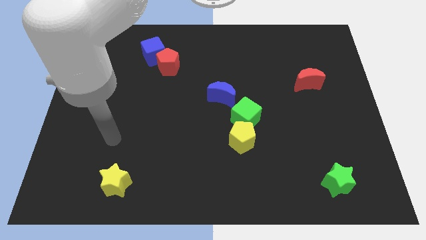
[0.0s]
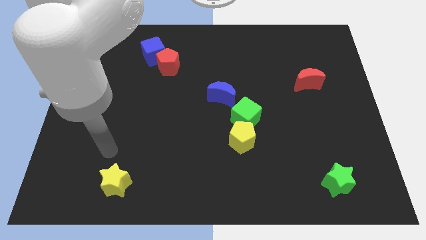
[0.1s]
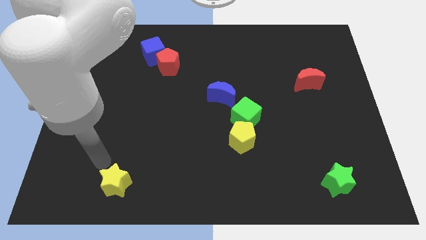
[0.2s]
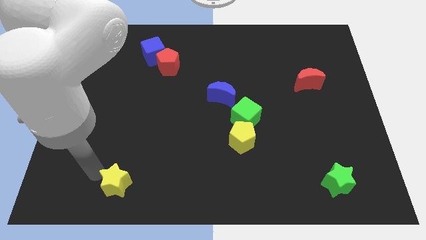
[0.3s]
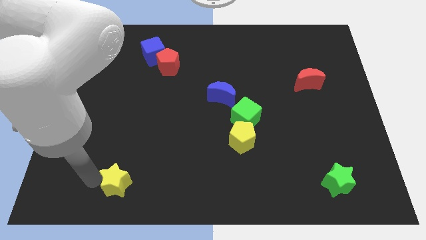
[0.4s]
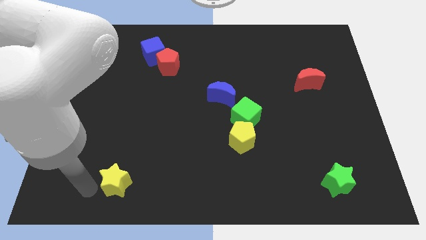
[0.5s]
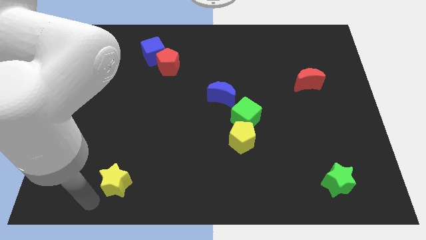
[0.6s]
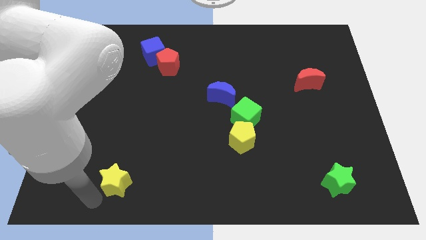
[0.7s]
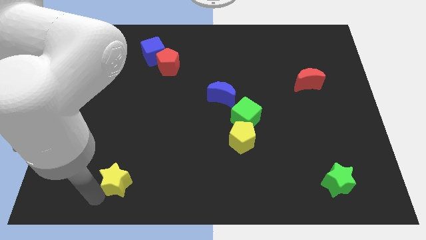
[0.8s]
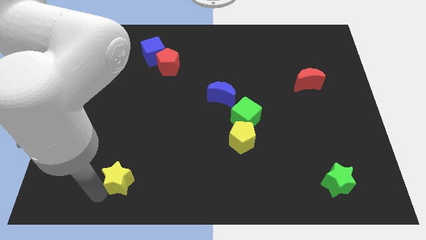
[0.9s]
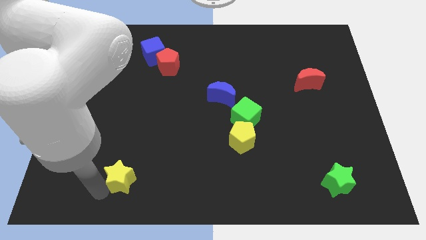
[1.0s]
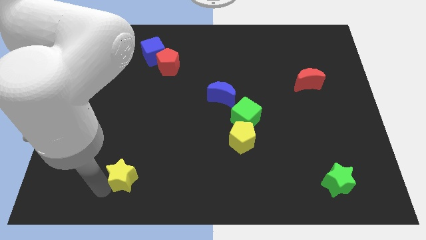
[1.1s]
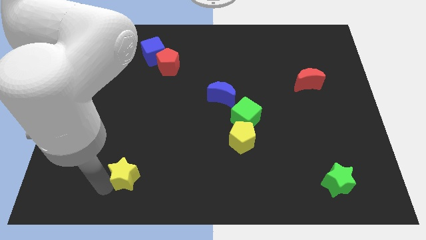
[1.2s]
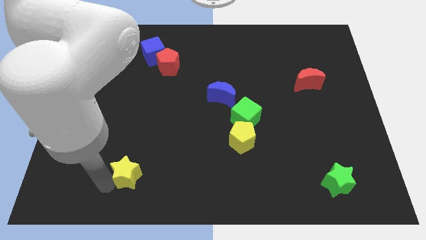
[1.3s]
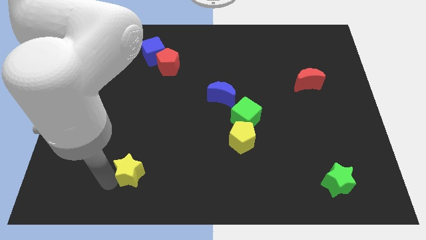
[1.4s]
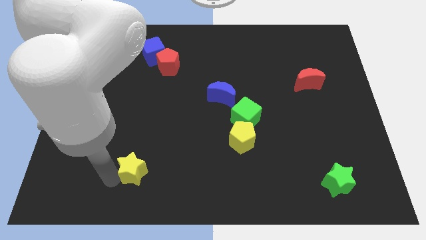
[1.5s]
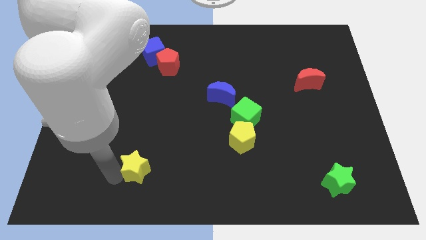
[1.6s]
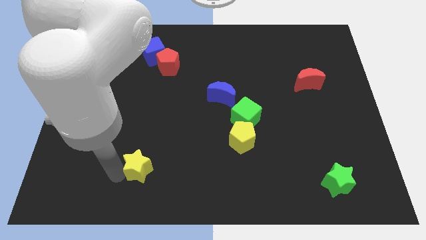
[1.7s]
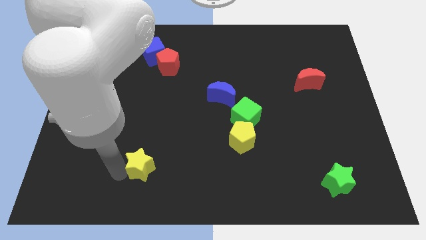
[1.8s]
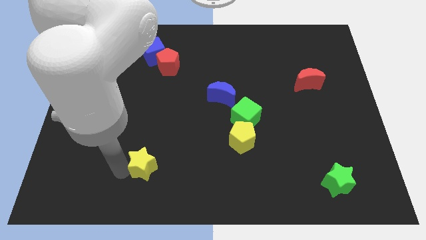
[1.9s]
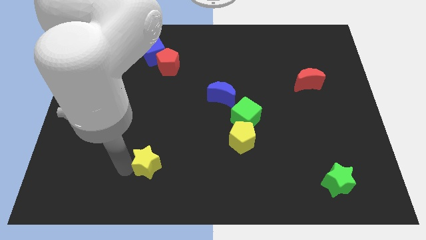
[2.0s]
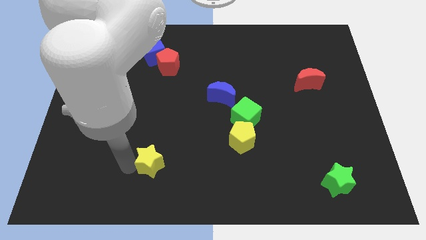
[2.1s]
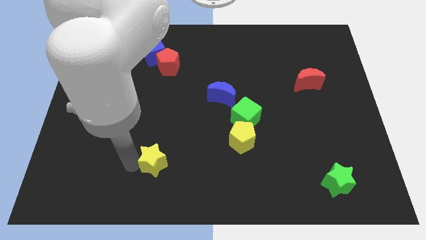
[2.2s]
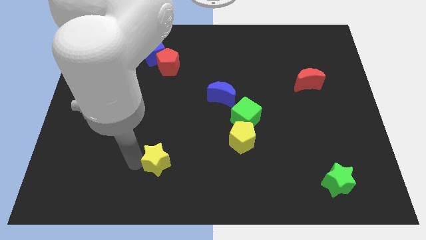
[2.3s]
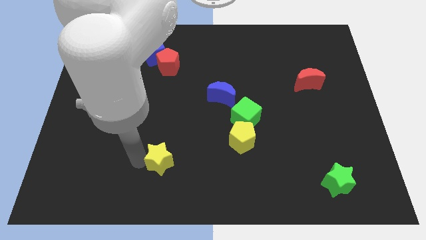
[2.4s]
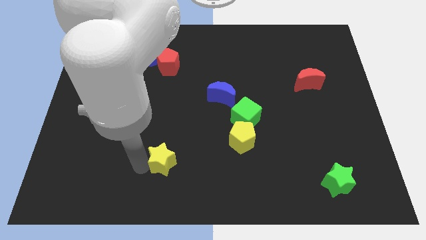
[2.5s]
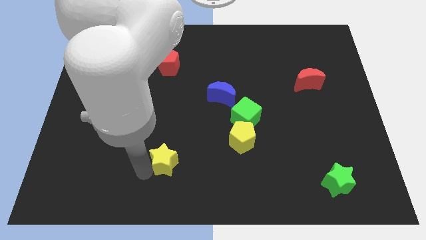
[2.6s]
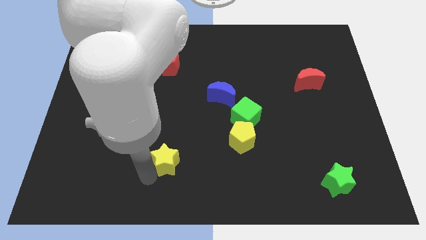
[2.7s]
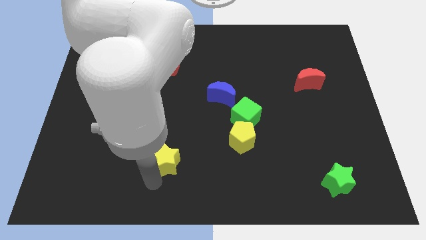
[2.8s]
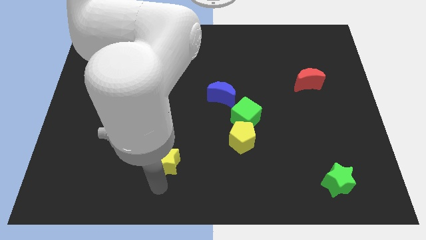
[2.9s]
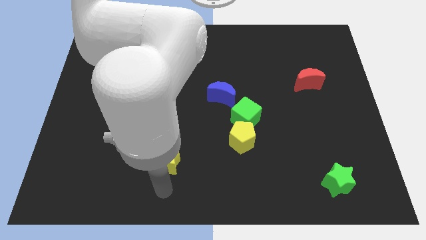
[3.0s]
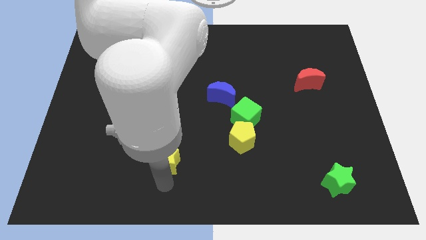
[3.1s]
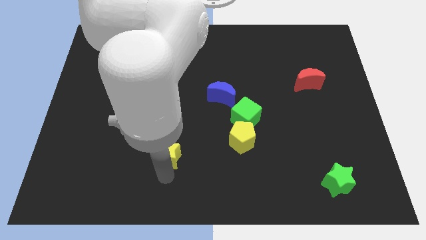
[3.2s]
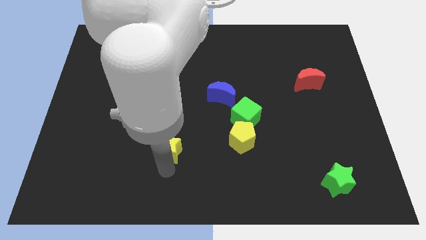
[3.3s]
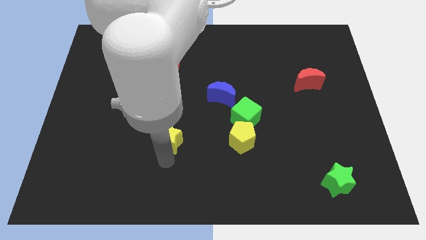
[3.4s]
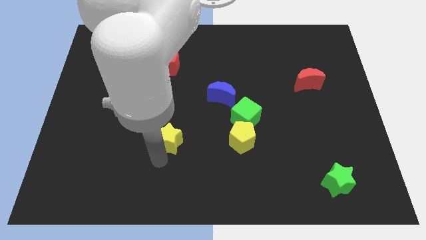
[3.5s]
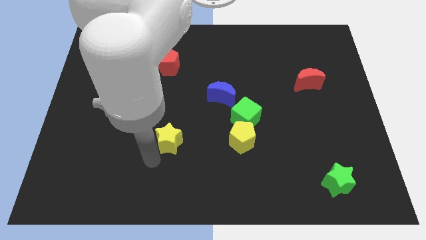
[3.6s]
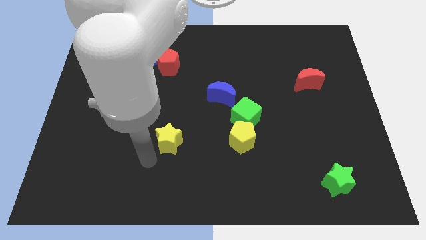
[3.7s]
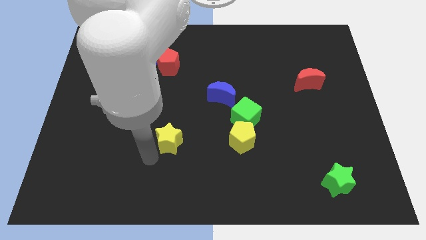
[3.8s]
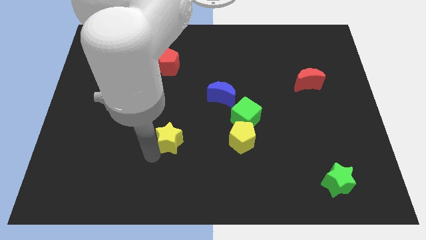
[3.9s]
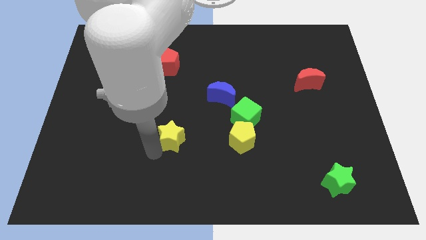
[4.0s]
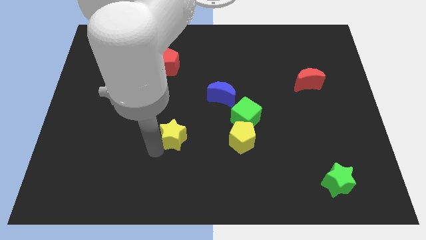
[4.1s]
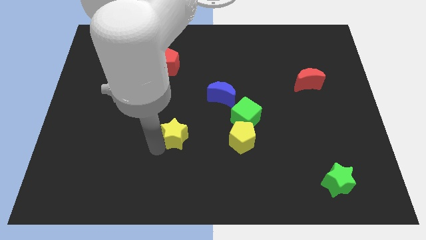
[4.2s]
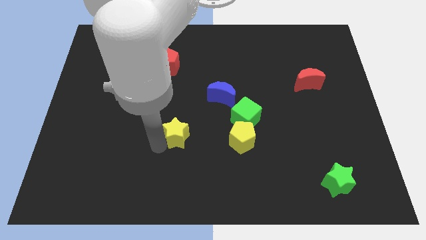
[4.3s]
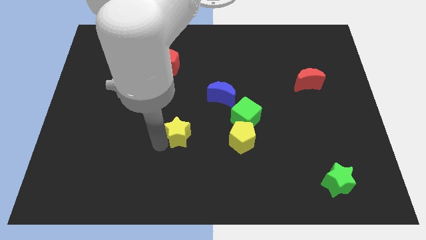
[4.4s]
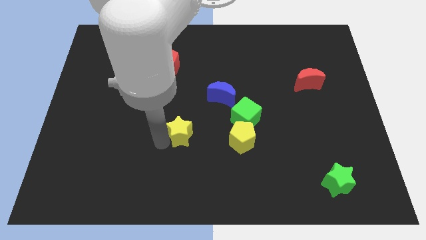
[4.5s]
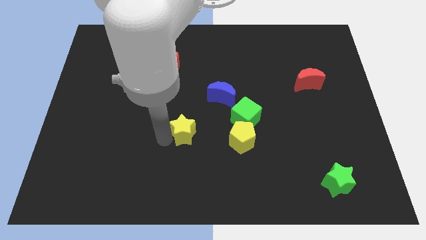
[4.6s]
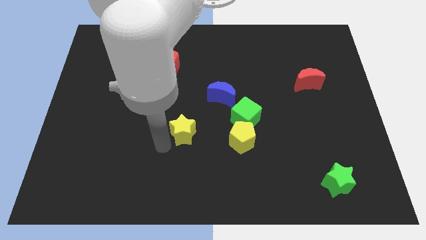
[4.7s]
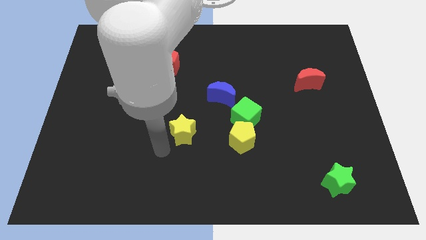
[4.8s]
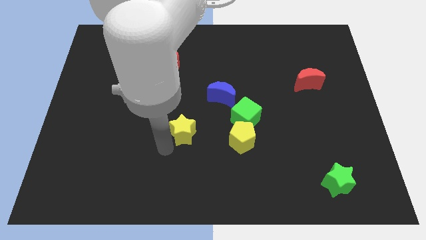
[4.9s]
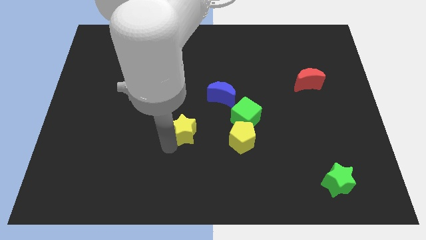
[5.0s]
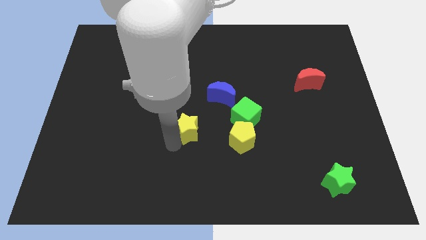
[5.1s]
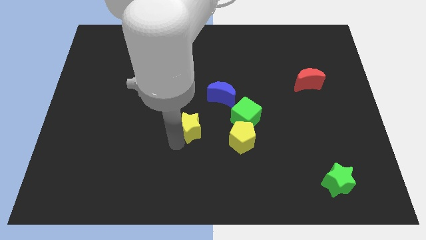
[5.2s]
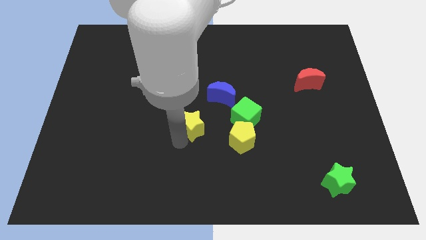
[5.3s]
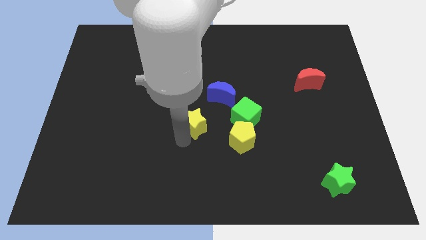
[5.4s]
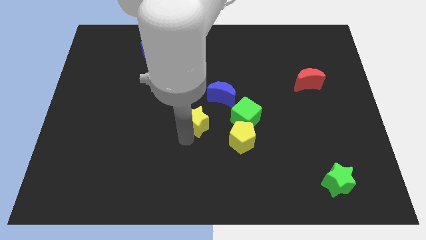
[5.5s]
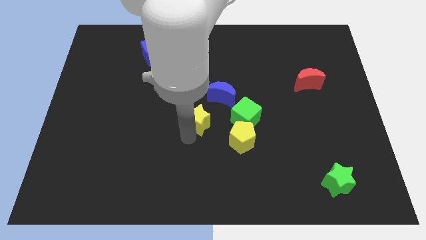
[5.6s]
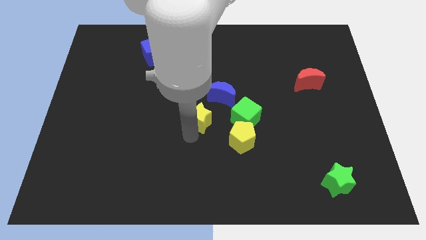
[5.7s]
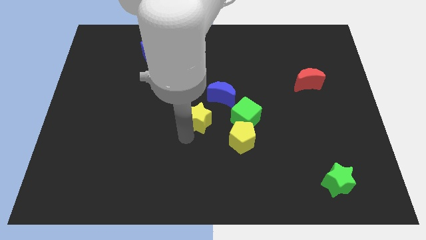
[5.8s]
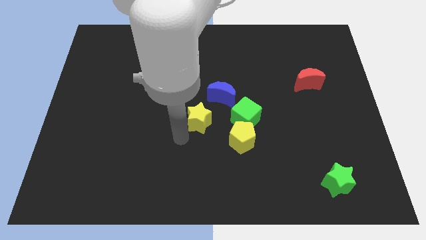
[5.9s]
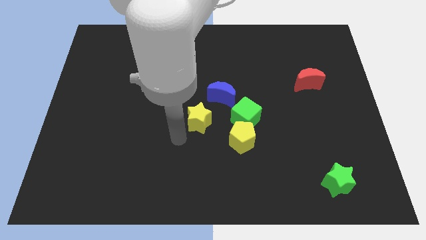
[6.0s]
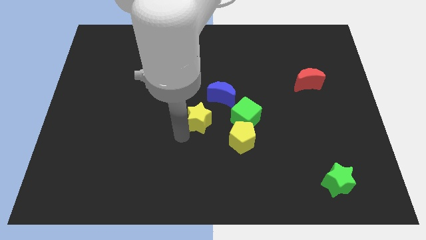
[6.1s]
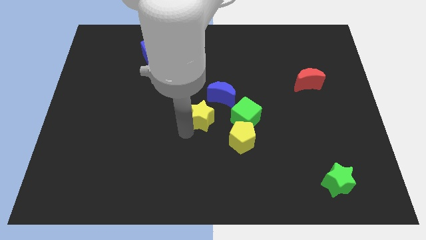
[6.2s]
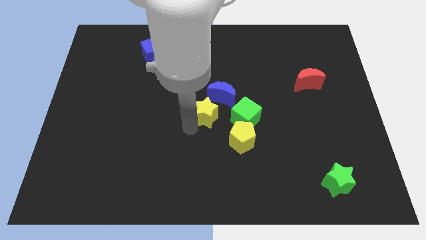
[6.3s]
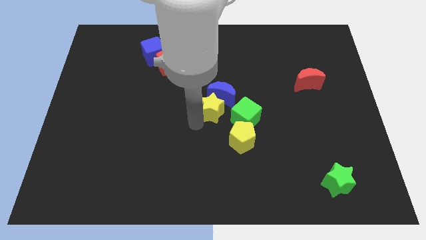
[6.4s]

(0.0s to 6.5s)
push the yellow star next to the blue moon

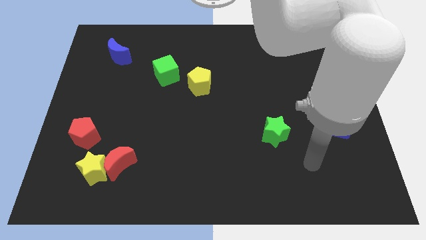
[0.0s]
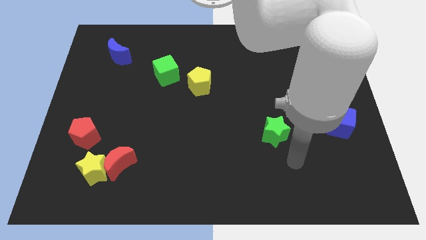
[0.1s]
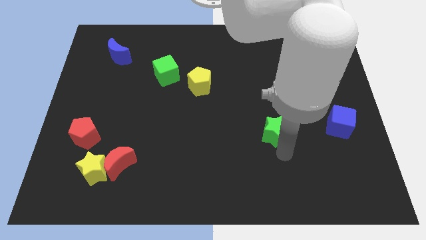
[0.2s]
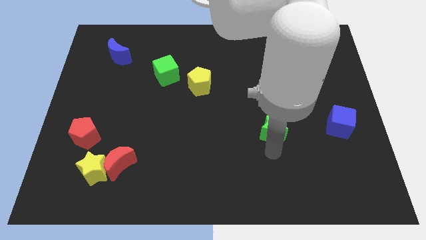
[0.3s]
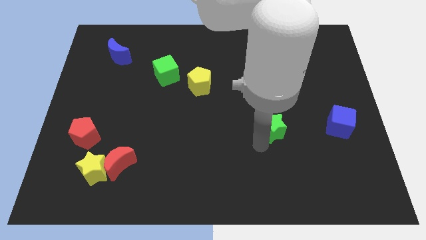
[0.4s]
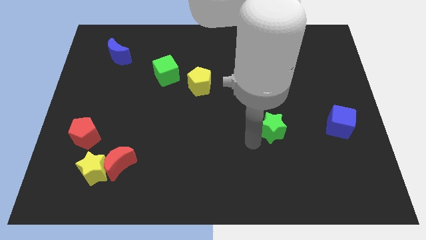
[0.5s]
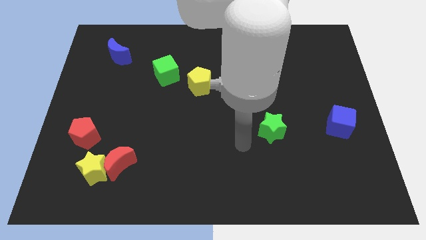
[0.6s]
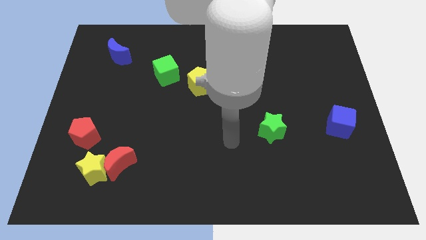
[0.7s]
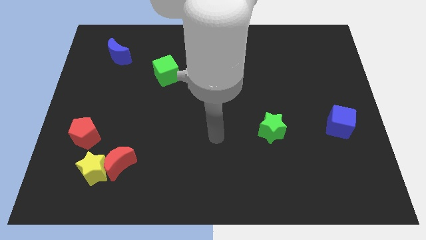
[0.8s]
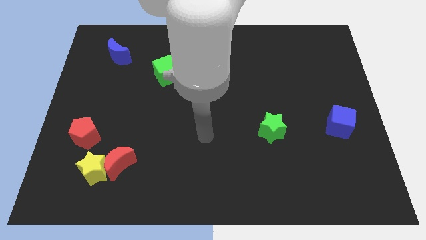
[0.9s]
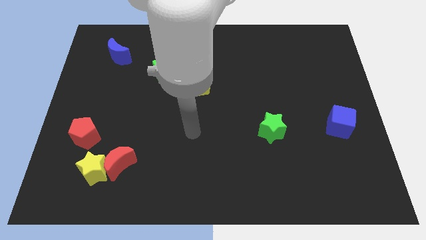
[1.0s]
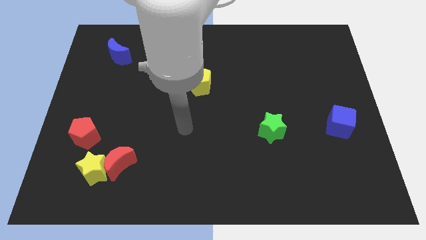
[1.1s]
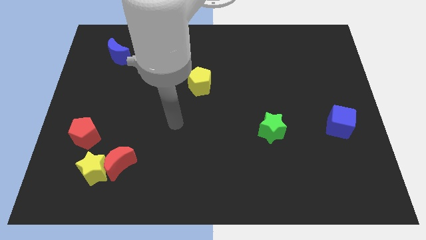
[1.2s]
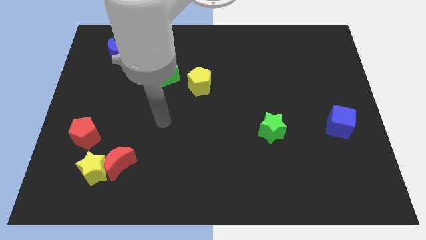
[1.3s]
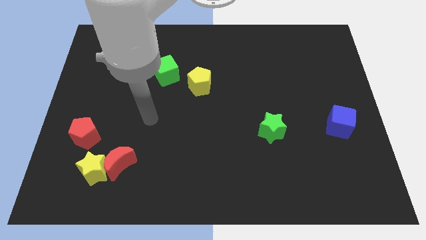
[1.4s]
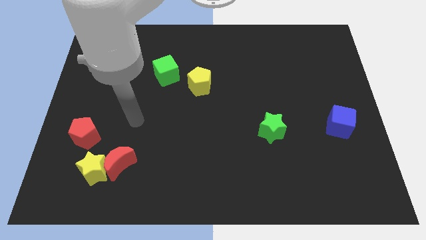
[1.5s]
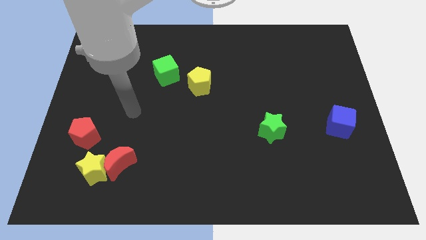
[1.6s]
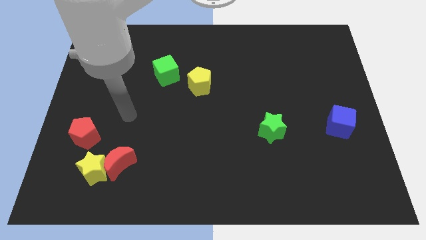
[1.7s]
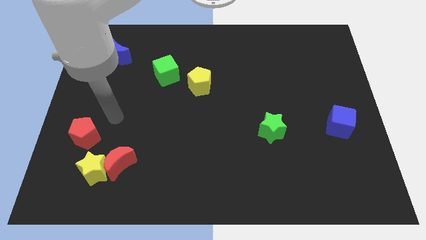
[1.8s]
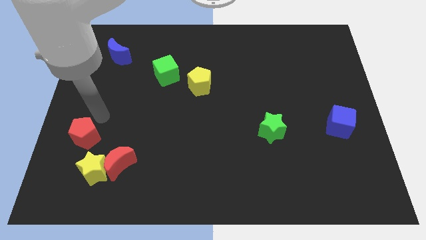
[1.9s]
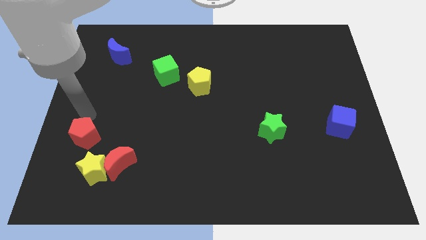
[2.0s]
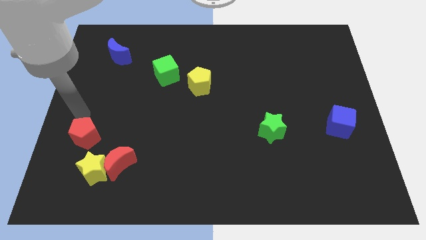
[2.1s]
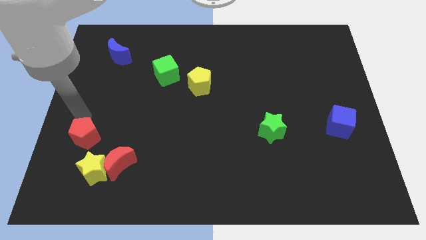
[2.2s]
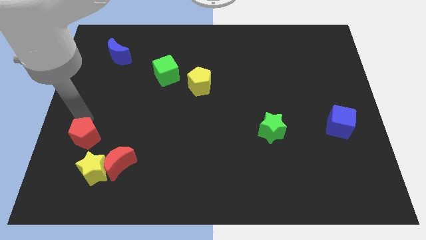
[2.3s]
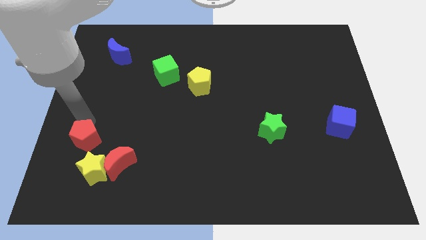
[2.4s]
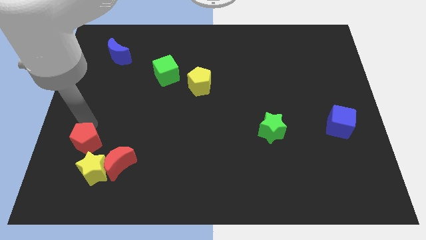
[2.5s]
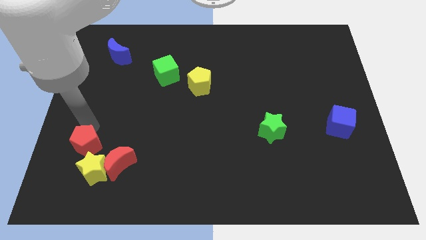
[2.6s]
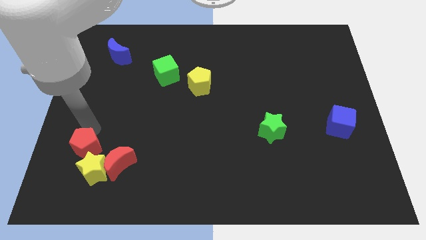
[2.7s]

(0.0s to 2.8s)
move the red pentagon next to the yellow star
